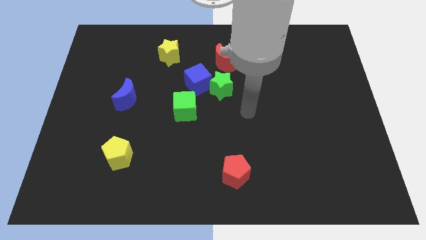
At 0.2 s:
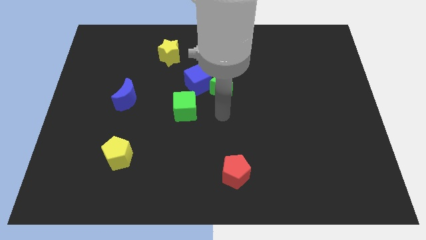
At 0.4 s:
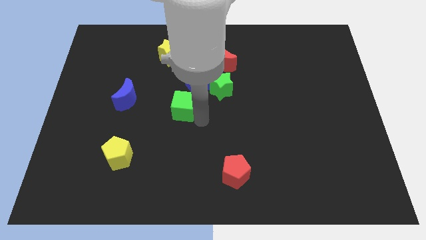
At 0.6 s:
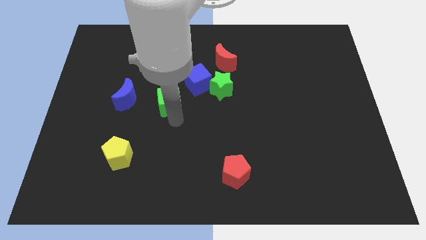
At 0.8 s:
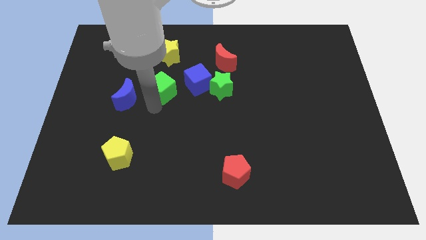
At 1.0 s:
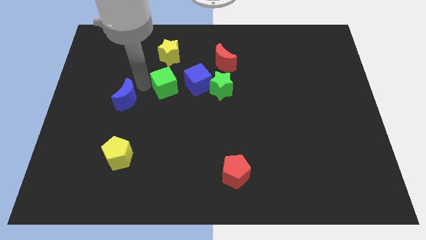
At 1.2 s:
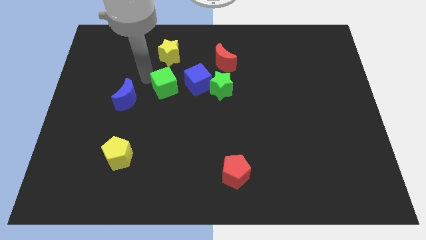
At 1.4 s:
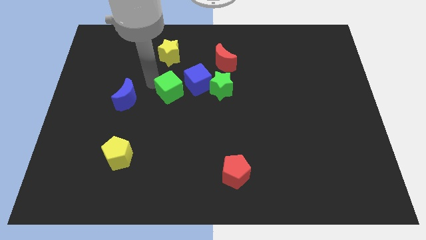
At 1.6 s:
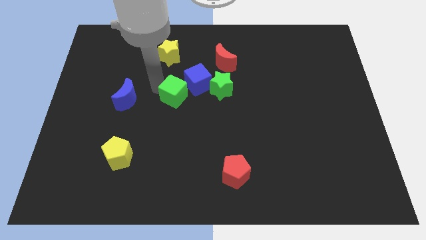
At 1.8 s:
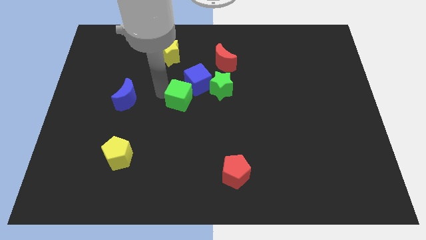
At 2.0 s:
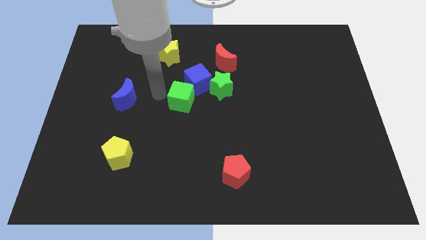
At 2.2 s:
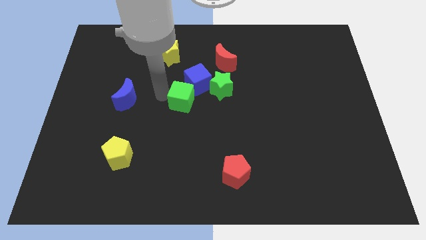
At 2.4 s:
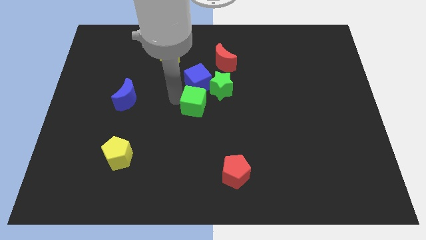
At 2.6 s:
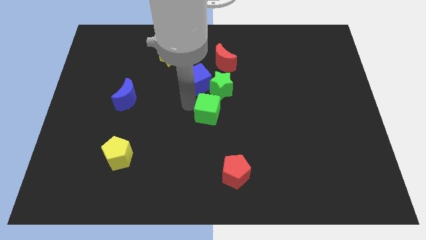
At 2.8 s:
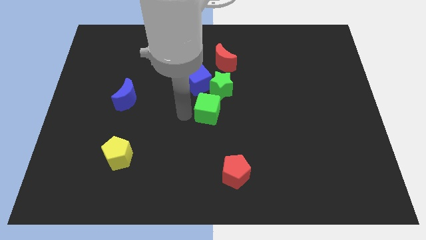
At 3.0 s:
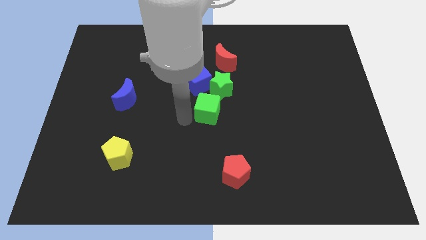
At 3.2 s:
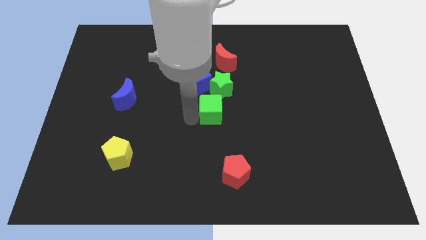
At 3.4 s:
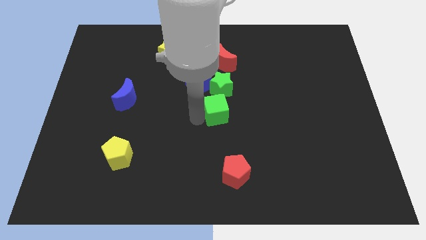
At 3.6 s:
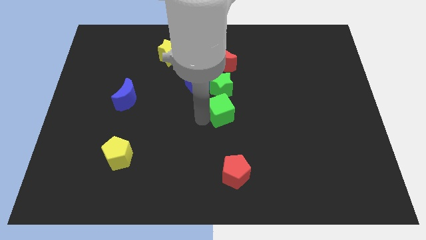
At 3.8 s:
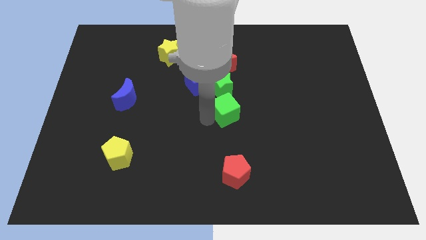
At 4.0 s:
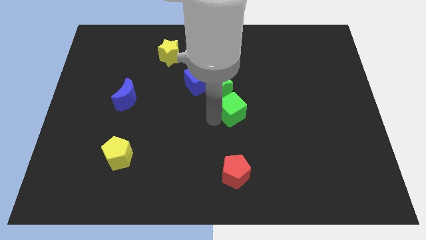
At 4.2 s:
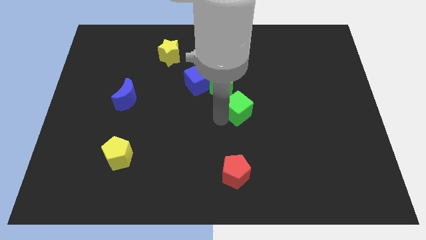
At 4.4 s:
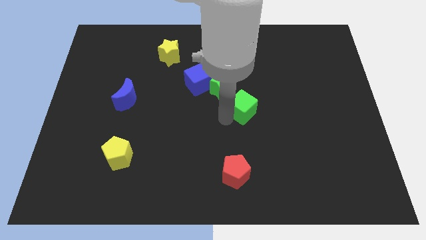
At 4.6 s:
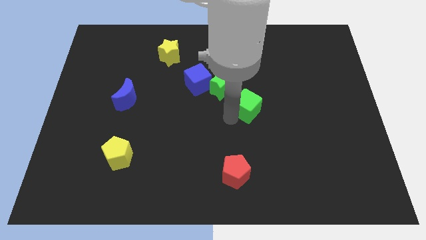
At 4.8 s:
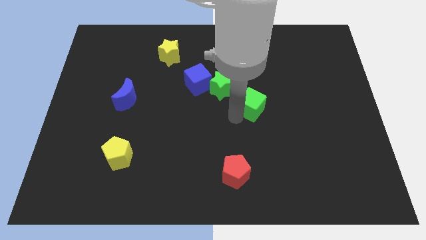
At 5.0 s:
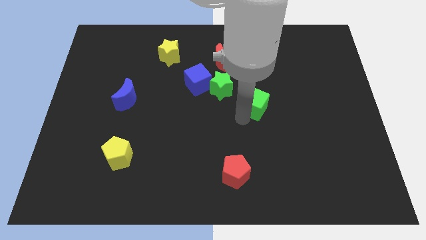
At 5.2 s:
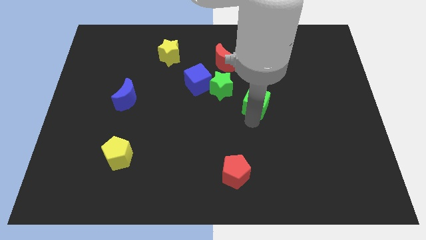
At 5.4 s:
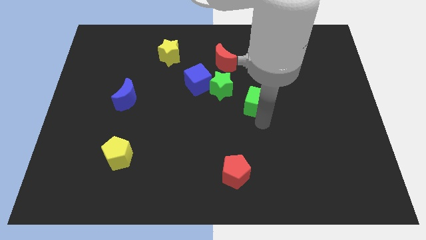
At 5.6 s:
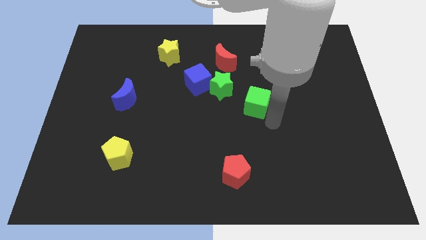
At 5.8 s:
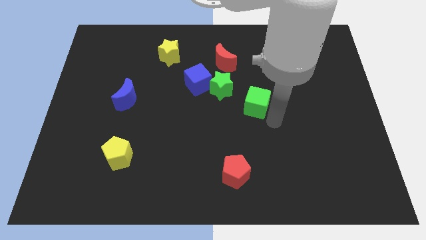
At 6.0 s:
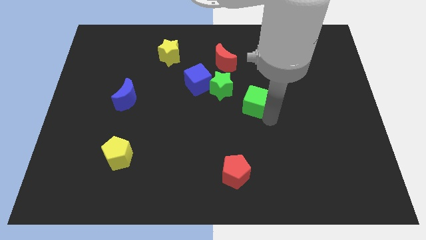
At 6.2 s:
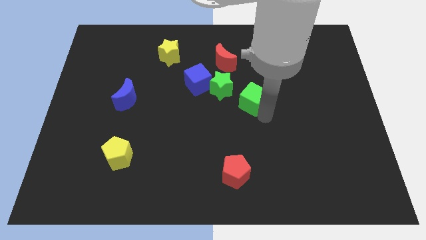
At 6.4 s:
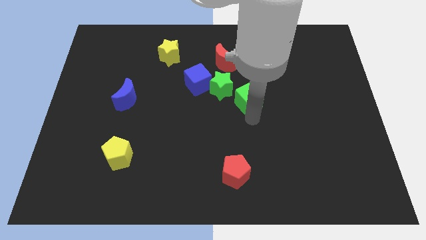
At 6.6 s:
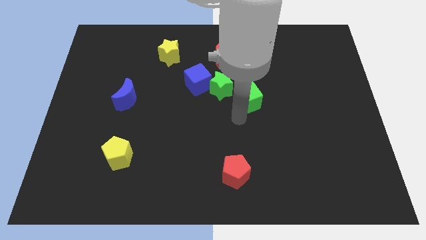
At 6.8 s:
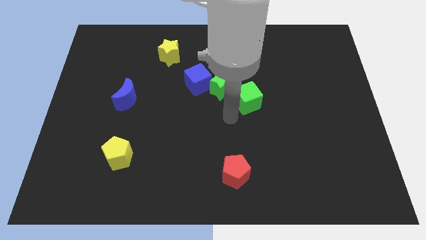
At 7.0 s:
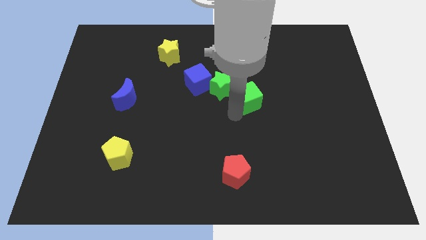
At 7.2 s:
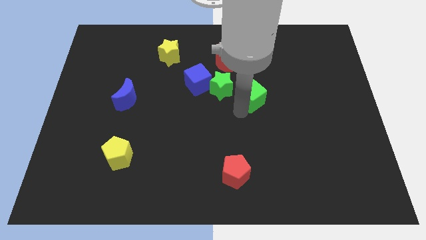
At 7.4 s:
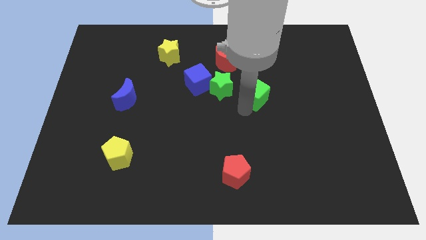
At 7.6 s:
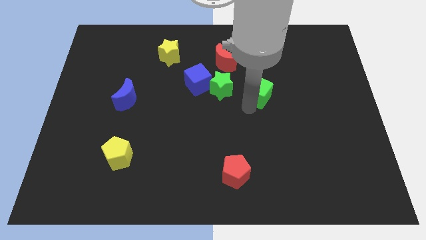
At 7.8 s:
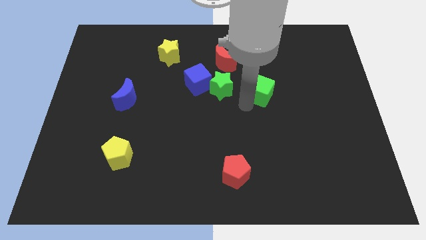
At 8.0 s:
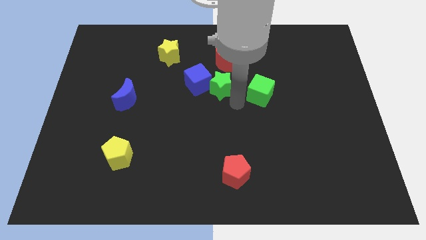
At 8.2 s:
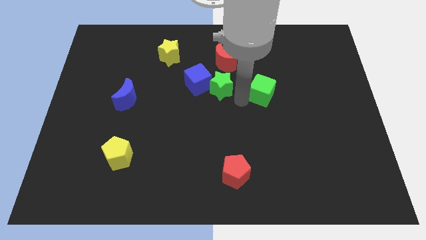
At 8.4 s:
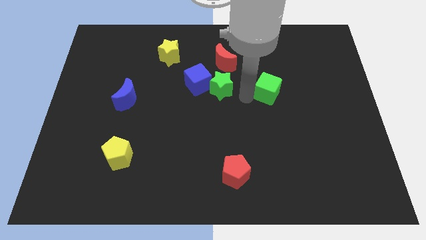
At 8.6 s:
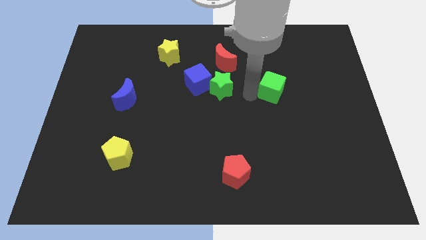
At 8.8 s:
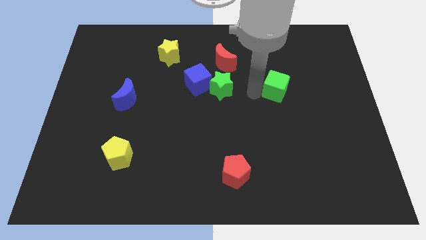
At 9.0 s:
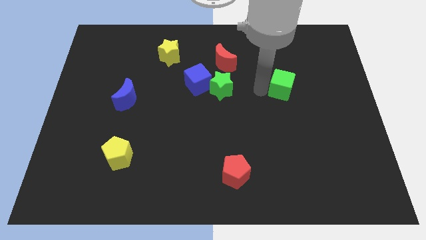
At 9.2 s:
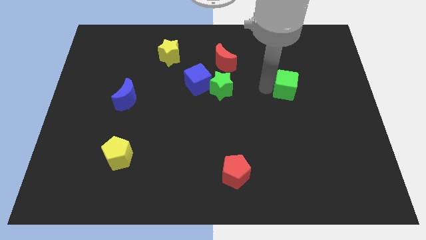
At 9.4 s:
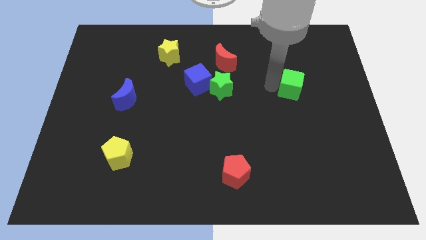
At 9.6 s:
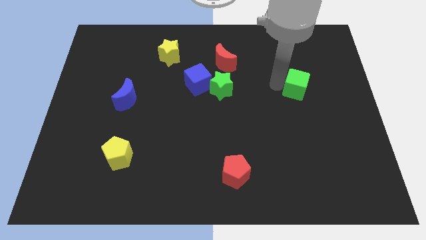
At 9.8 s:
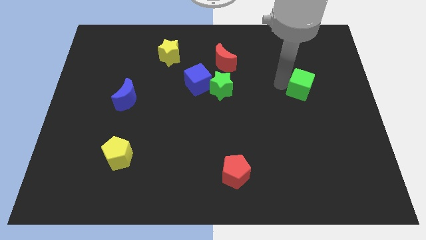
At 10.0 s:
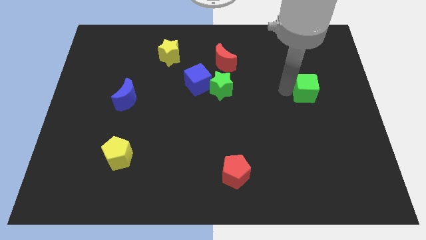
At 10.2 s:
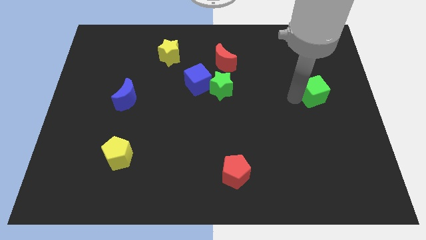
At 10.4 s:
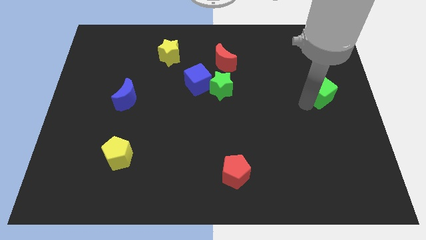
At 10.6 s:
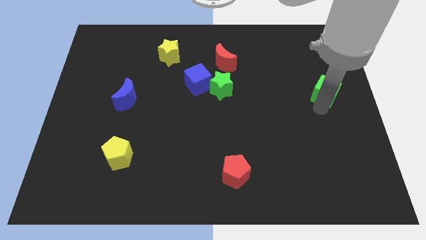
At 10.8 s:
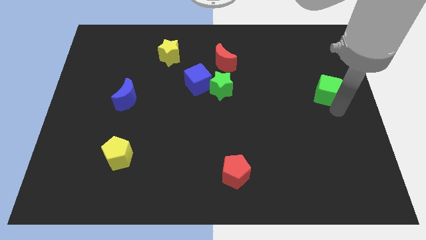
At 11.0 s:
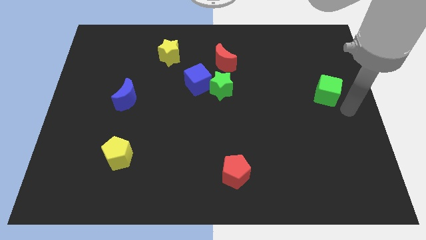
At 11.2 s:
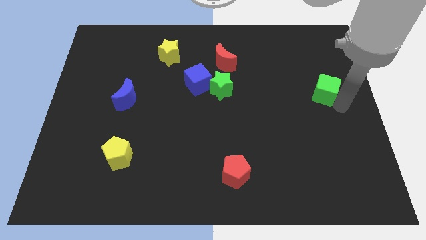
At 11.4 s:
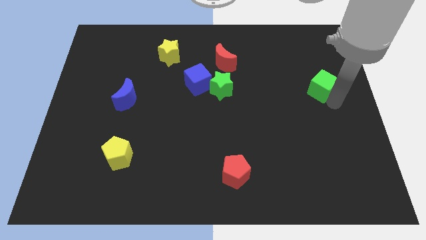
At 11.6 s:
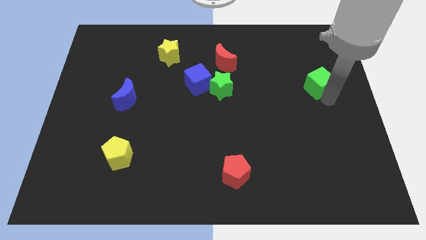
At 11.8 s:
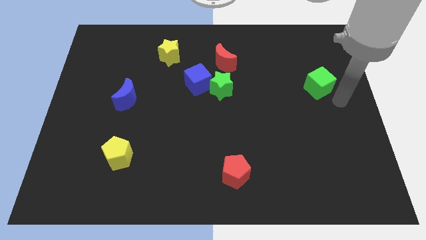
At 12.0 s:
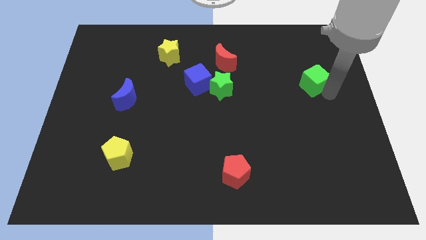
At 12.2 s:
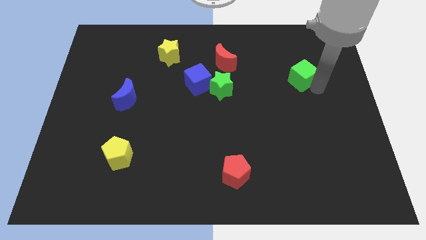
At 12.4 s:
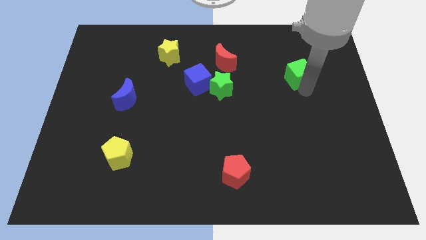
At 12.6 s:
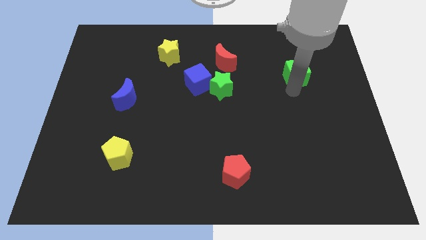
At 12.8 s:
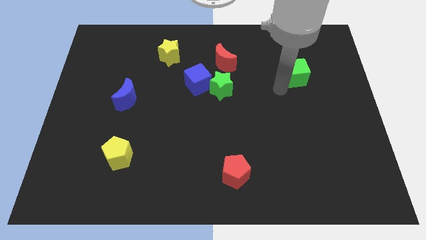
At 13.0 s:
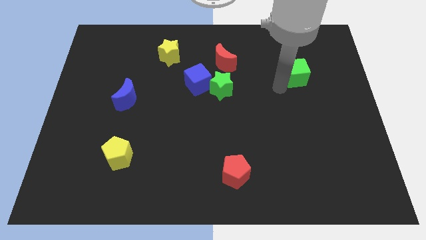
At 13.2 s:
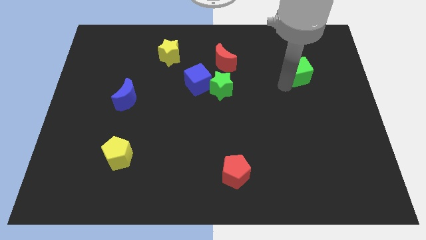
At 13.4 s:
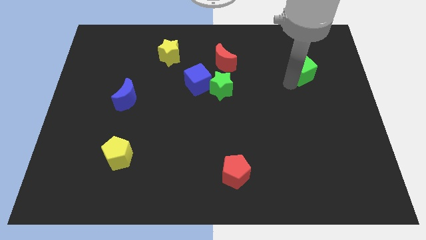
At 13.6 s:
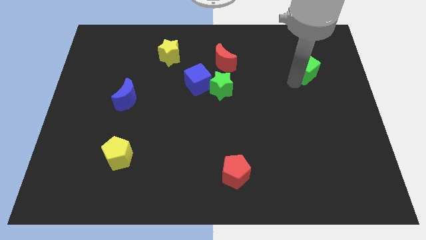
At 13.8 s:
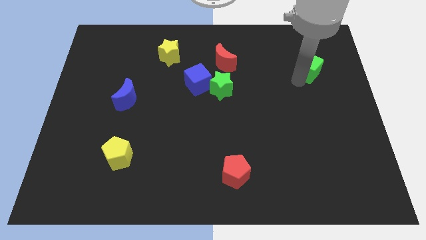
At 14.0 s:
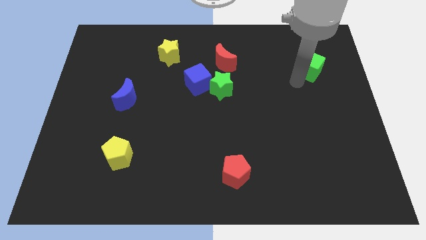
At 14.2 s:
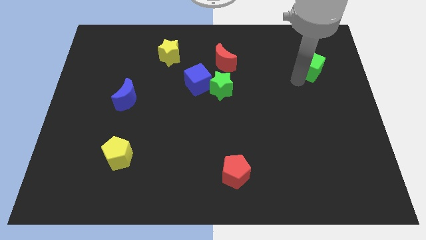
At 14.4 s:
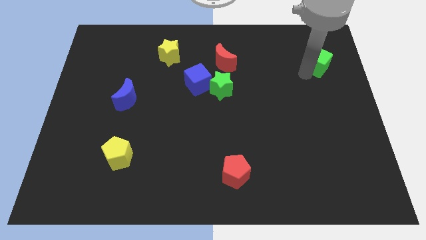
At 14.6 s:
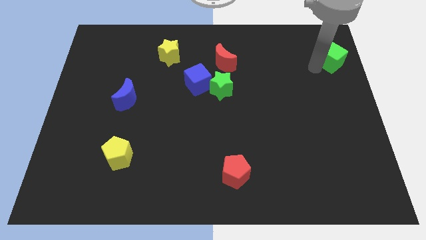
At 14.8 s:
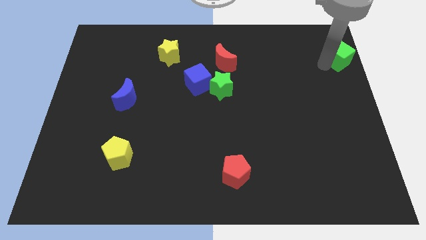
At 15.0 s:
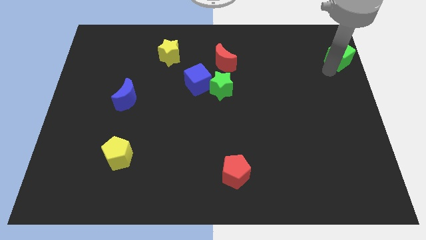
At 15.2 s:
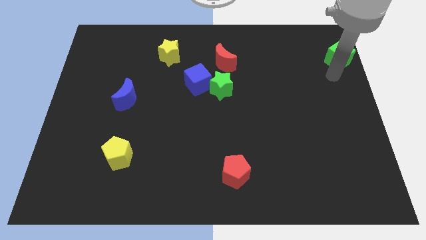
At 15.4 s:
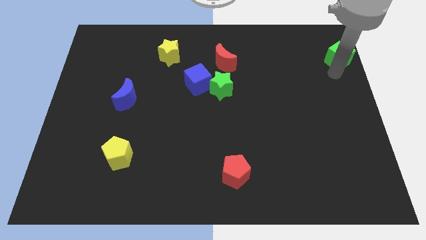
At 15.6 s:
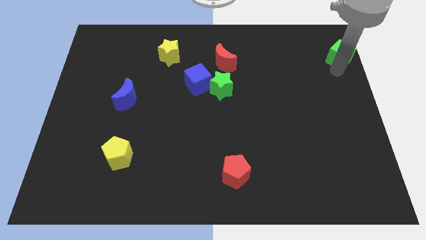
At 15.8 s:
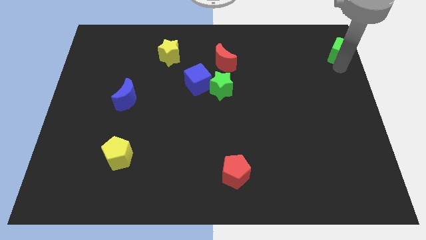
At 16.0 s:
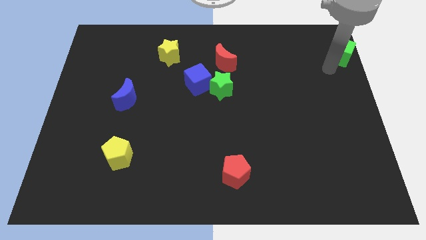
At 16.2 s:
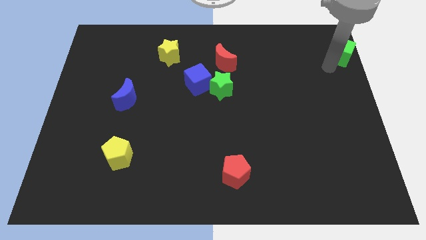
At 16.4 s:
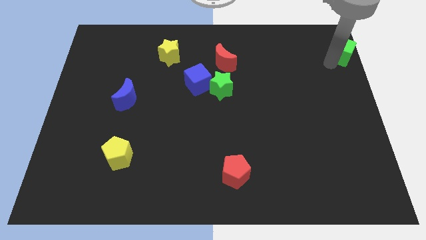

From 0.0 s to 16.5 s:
move the green cube to the top right of the board
